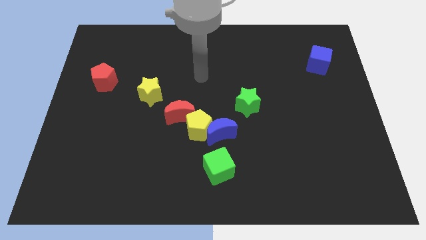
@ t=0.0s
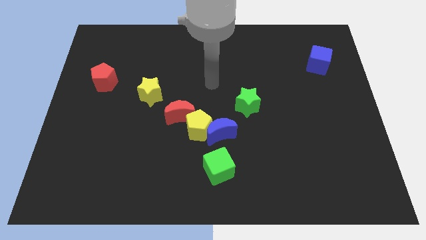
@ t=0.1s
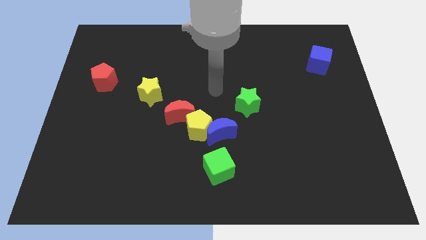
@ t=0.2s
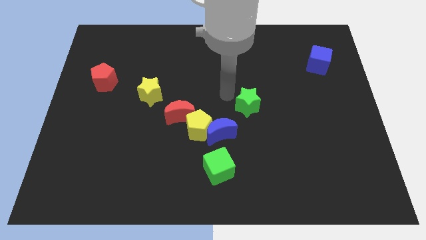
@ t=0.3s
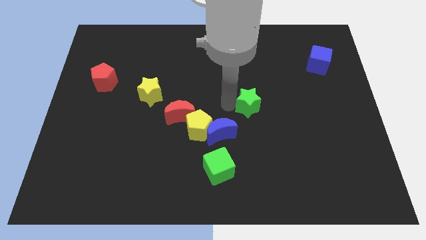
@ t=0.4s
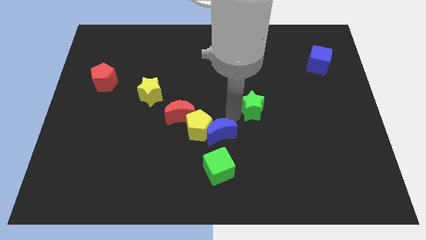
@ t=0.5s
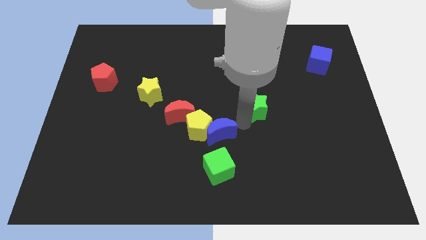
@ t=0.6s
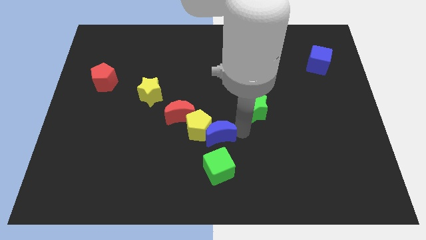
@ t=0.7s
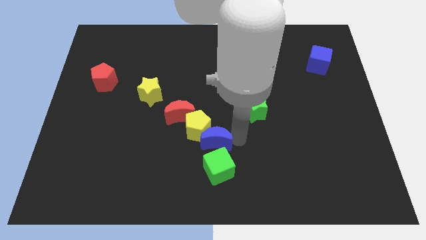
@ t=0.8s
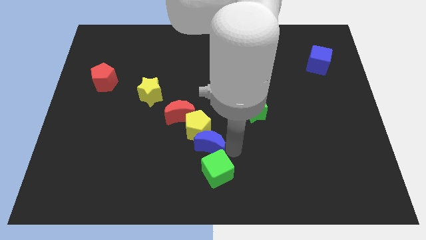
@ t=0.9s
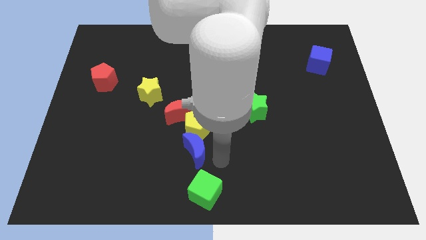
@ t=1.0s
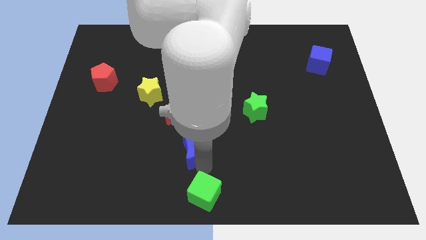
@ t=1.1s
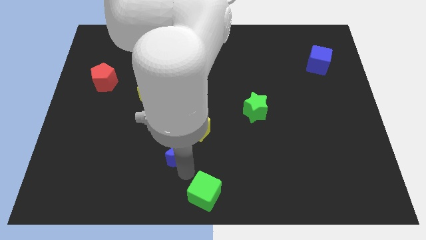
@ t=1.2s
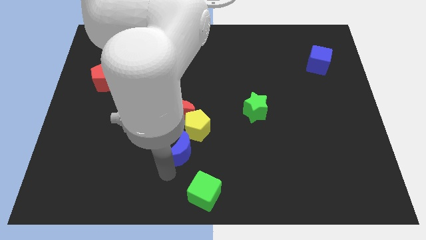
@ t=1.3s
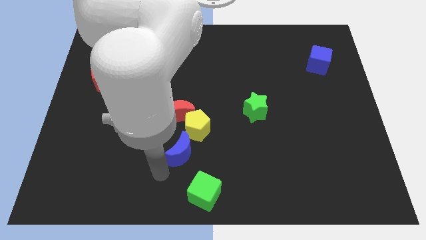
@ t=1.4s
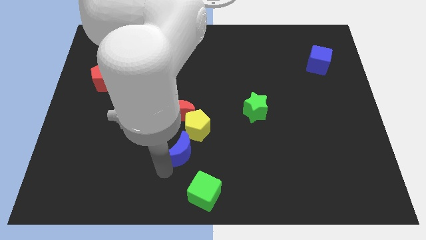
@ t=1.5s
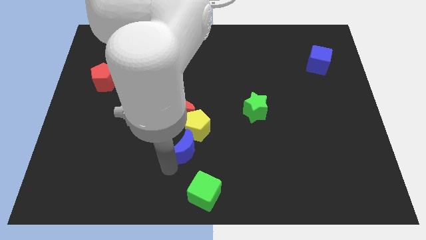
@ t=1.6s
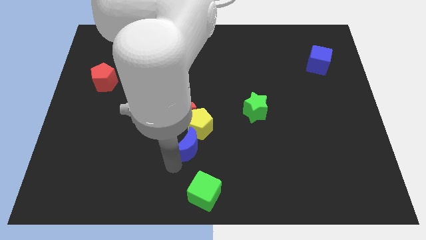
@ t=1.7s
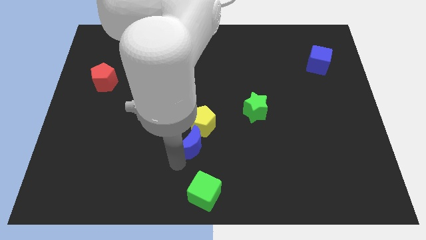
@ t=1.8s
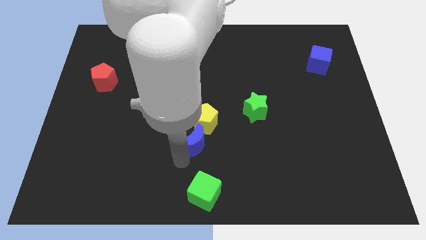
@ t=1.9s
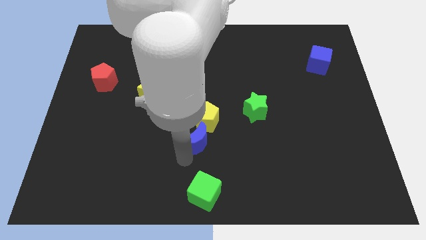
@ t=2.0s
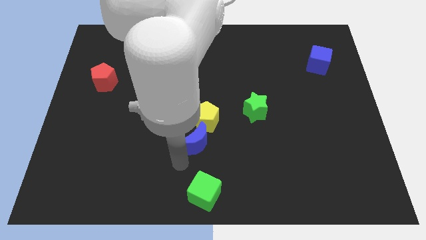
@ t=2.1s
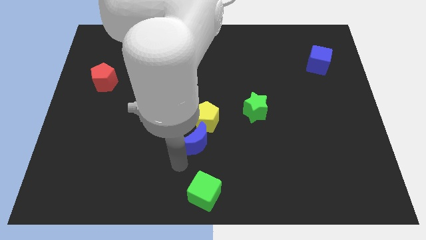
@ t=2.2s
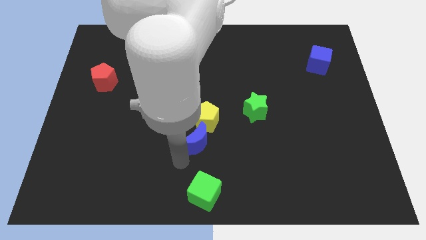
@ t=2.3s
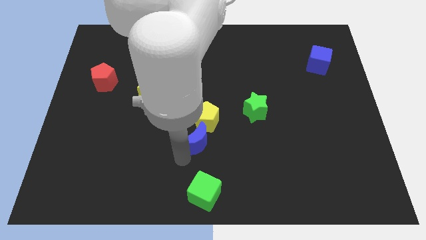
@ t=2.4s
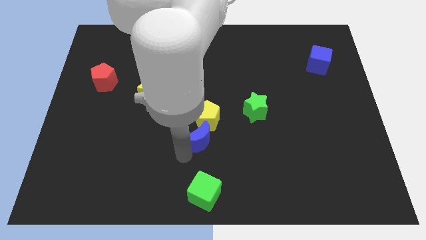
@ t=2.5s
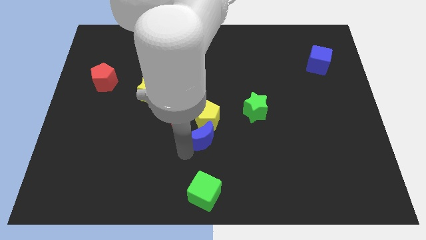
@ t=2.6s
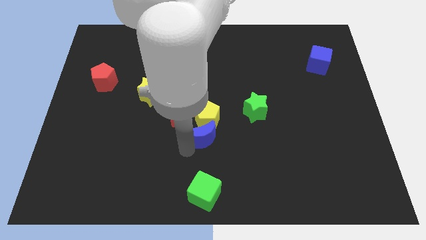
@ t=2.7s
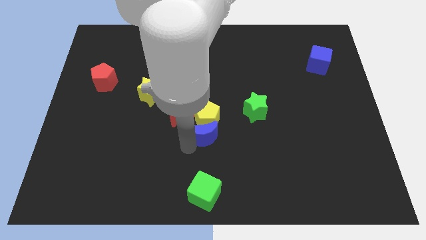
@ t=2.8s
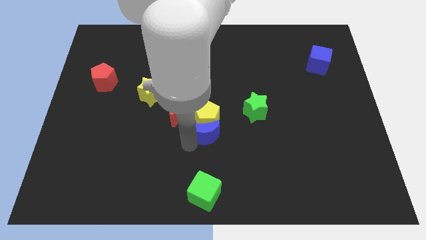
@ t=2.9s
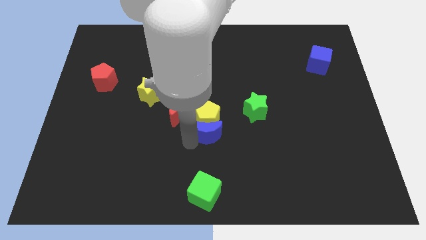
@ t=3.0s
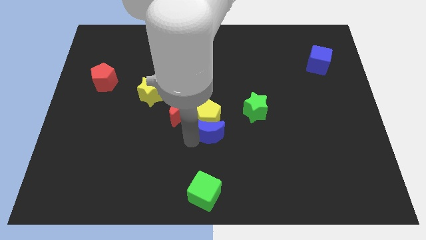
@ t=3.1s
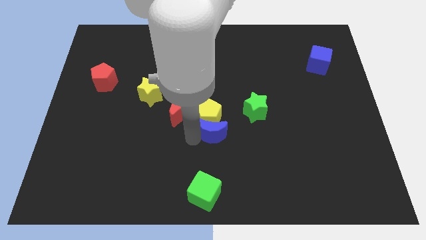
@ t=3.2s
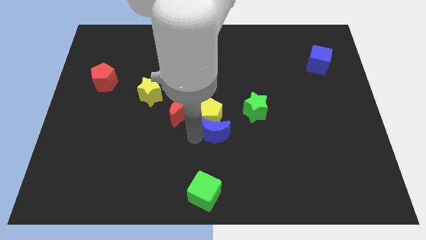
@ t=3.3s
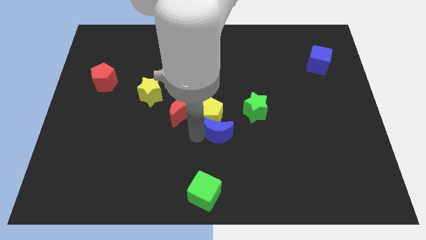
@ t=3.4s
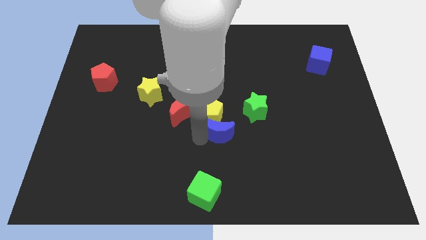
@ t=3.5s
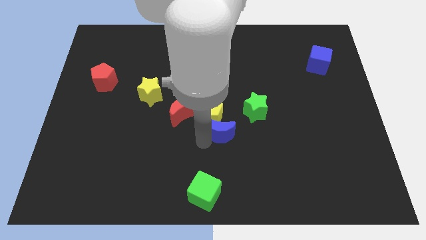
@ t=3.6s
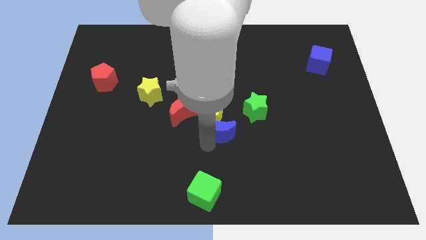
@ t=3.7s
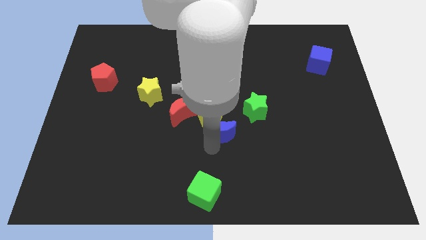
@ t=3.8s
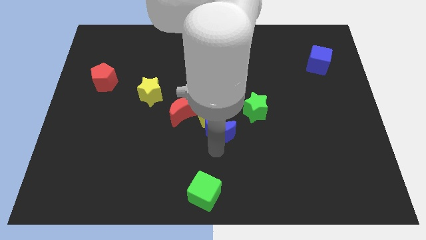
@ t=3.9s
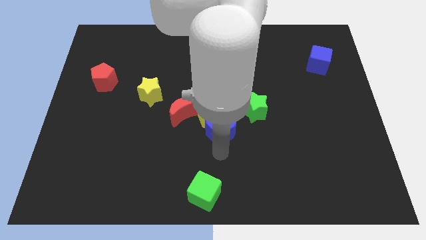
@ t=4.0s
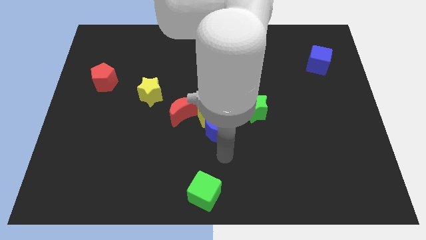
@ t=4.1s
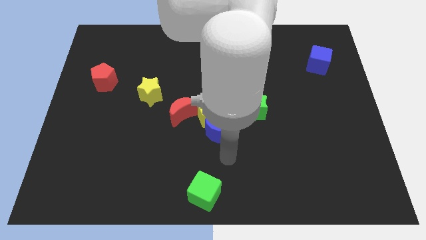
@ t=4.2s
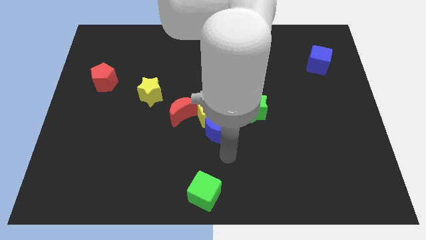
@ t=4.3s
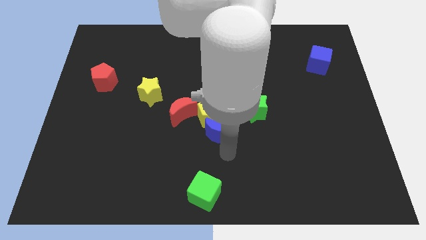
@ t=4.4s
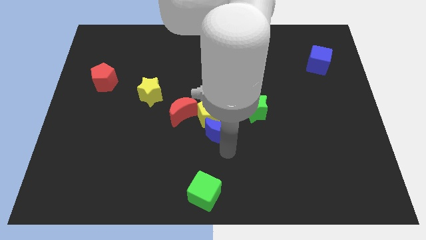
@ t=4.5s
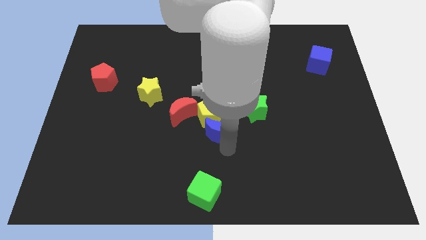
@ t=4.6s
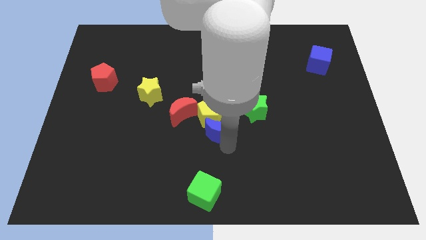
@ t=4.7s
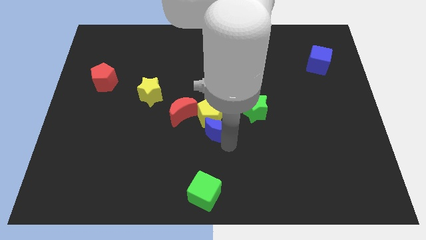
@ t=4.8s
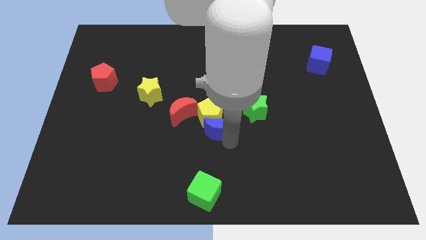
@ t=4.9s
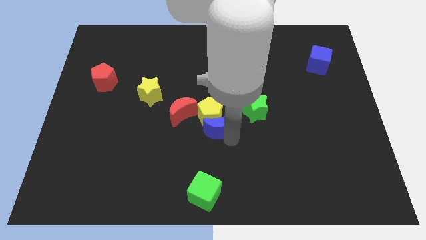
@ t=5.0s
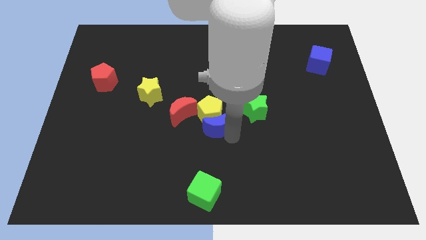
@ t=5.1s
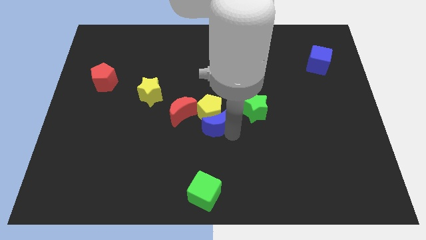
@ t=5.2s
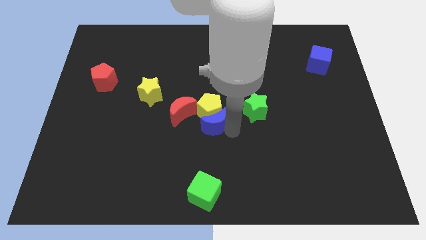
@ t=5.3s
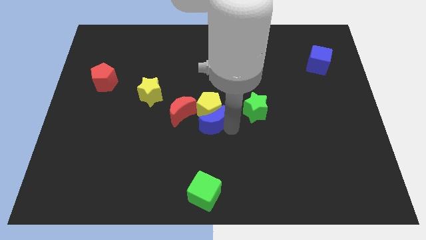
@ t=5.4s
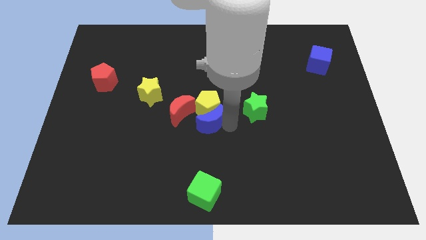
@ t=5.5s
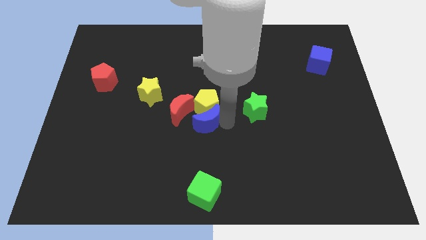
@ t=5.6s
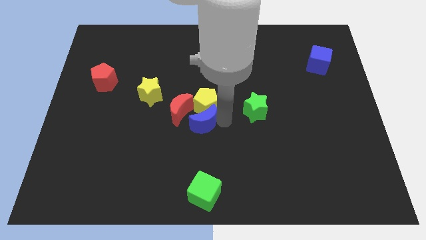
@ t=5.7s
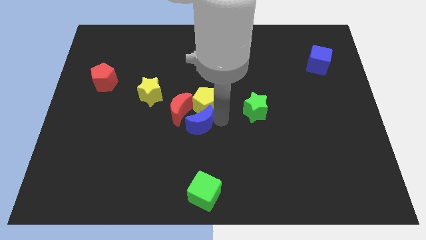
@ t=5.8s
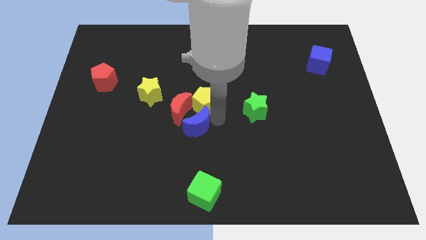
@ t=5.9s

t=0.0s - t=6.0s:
push the blue moon to the red moon

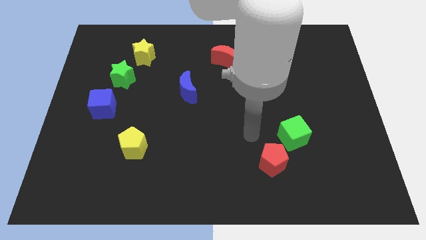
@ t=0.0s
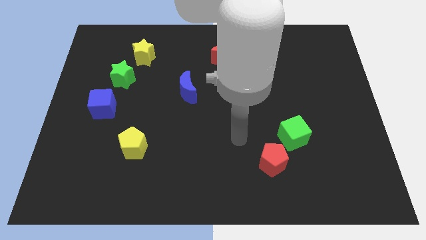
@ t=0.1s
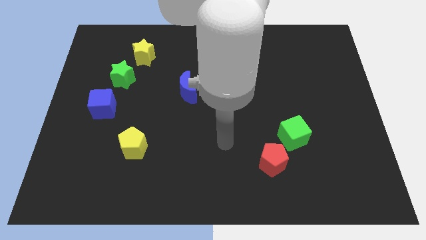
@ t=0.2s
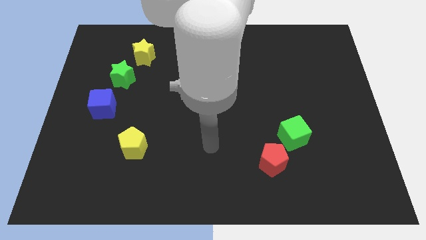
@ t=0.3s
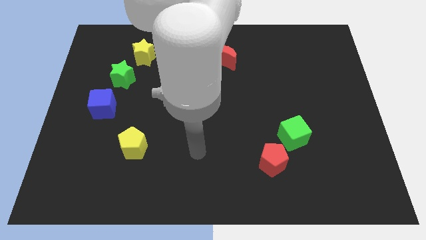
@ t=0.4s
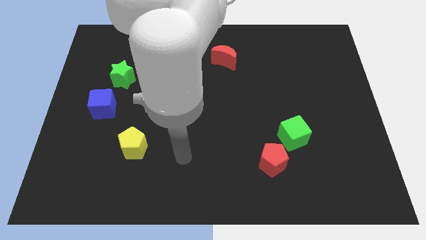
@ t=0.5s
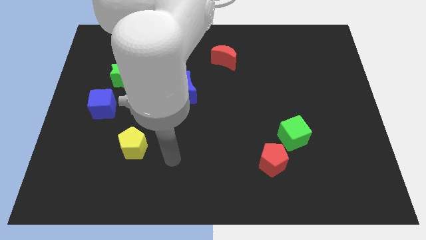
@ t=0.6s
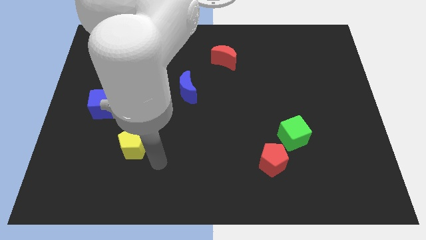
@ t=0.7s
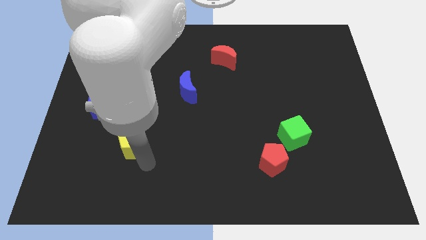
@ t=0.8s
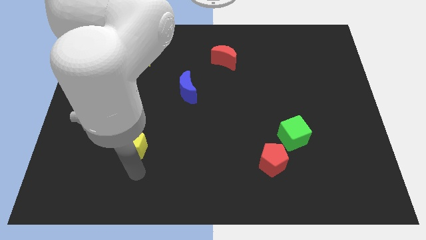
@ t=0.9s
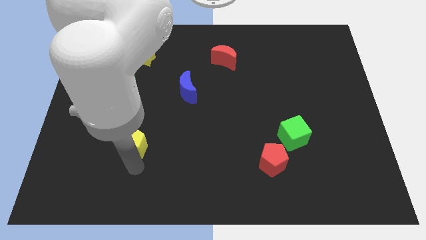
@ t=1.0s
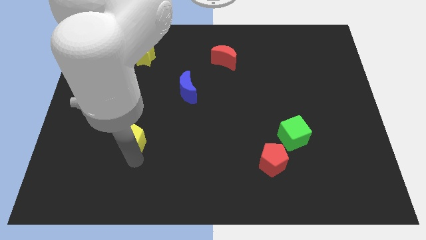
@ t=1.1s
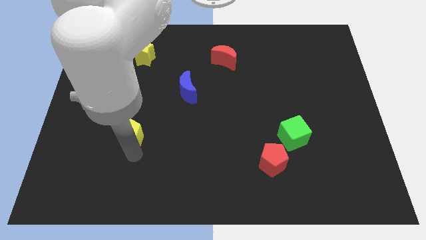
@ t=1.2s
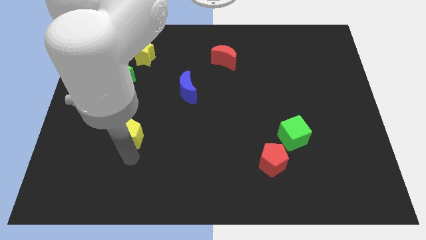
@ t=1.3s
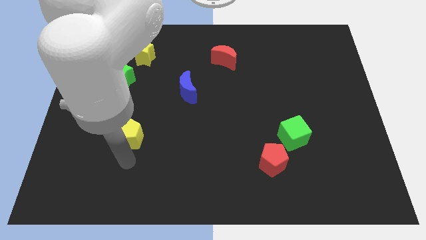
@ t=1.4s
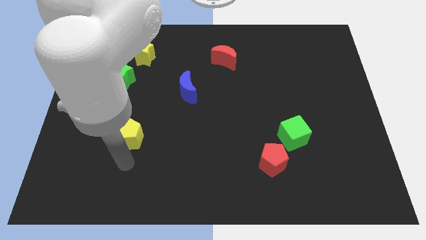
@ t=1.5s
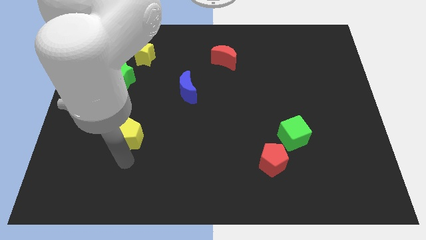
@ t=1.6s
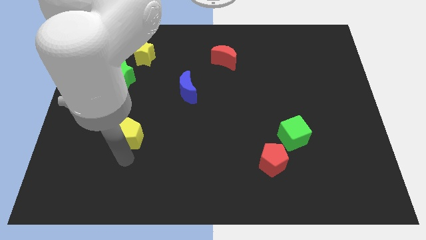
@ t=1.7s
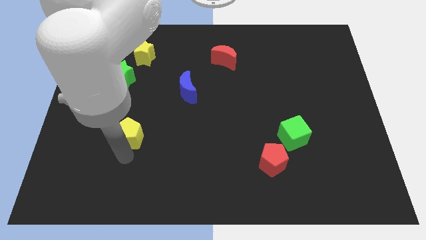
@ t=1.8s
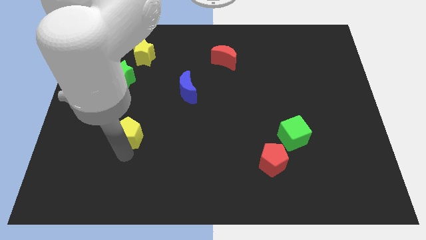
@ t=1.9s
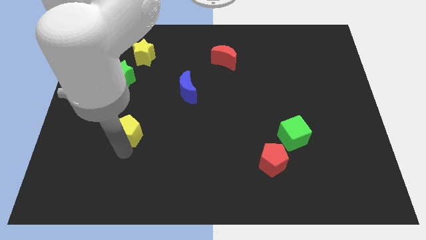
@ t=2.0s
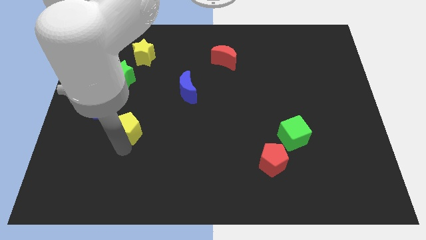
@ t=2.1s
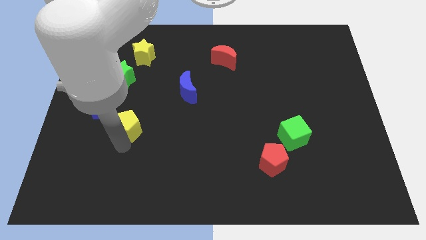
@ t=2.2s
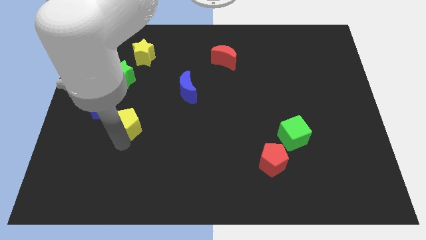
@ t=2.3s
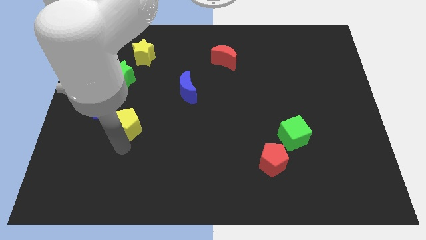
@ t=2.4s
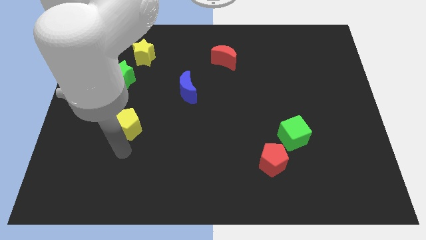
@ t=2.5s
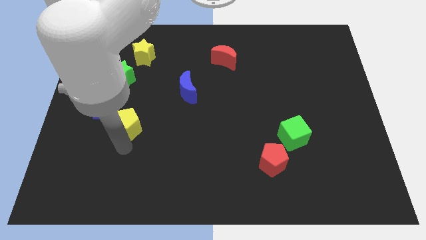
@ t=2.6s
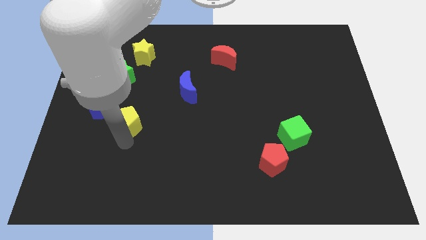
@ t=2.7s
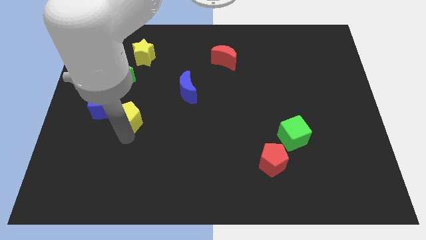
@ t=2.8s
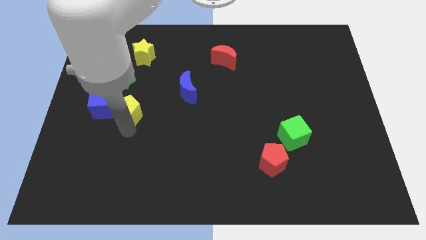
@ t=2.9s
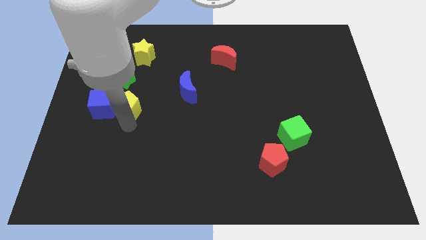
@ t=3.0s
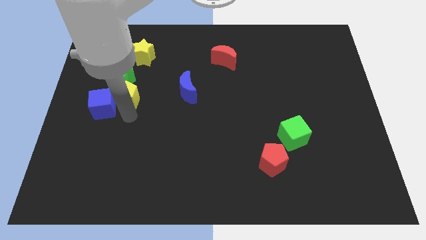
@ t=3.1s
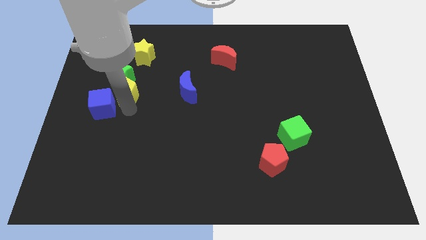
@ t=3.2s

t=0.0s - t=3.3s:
put the yellow pentagon to the green star
